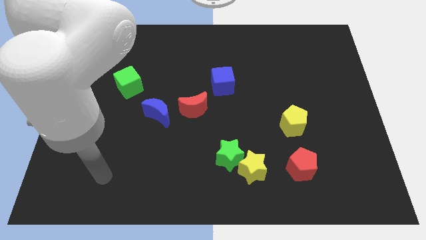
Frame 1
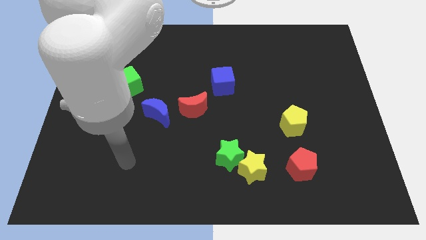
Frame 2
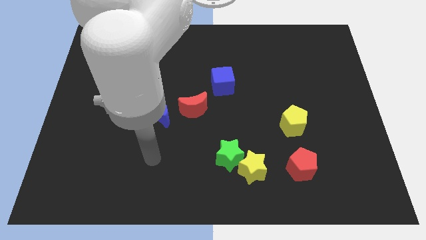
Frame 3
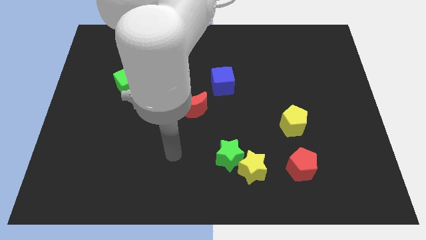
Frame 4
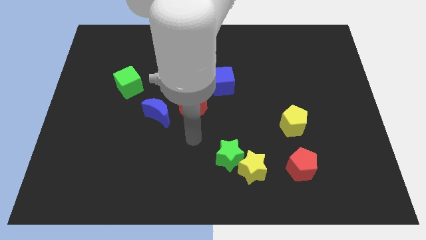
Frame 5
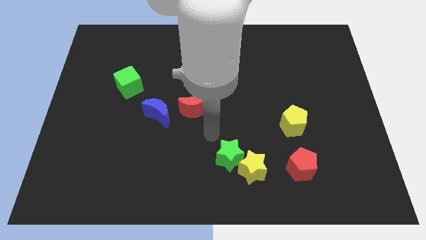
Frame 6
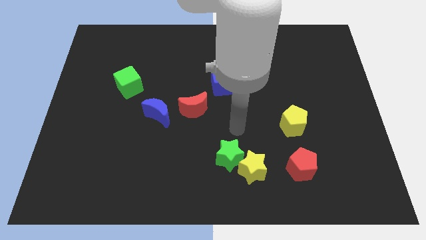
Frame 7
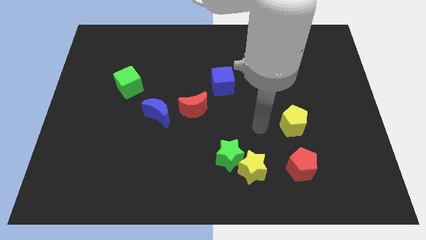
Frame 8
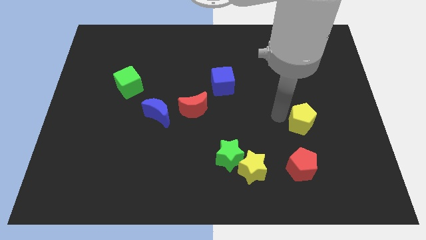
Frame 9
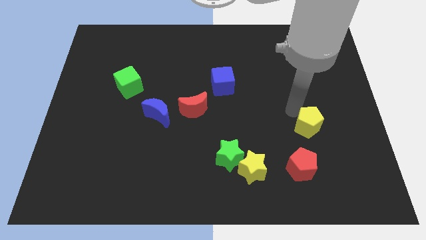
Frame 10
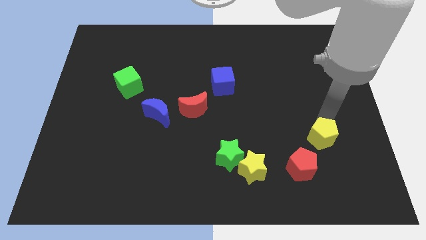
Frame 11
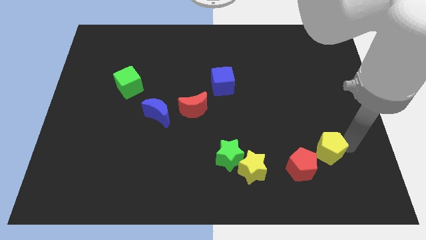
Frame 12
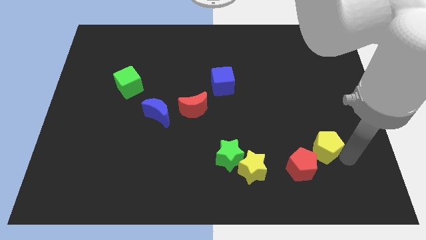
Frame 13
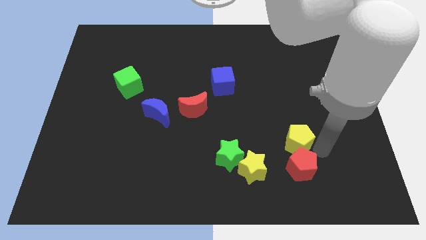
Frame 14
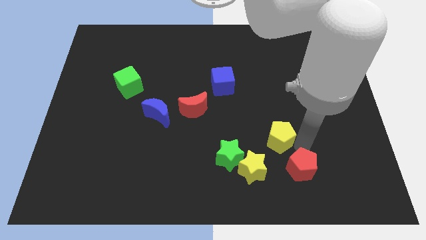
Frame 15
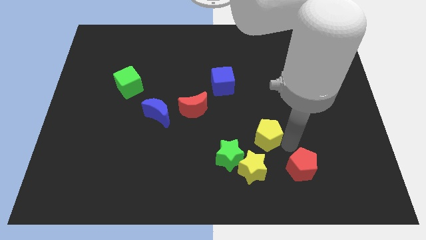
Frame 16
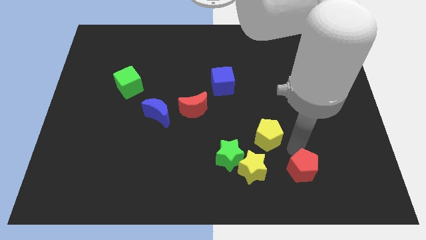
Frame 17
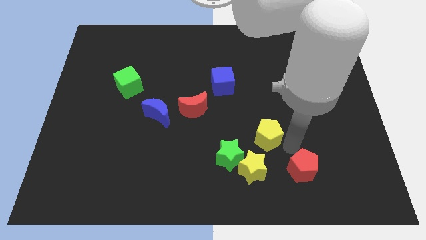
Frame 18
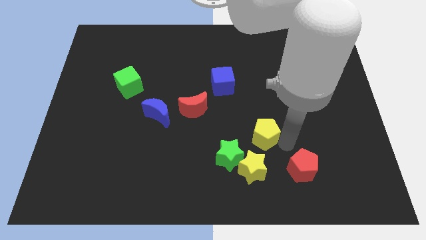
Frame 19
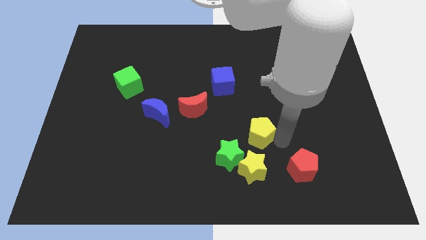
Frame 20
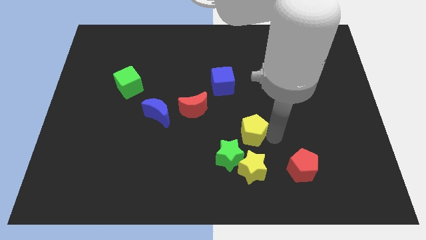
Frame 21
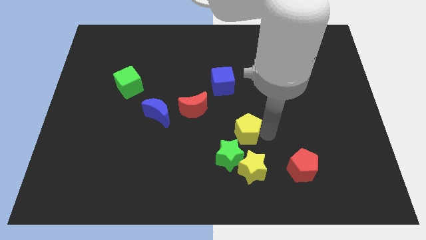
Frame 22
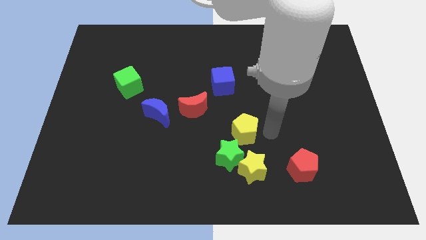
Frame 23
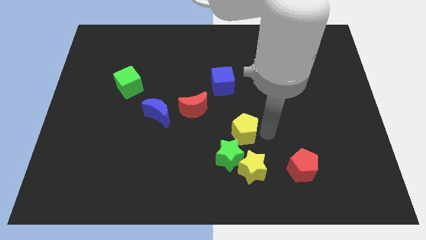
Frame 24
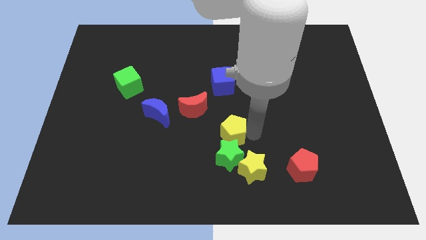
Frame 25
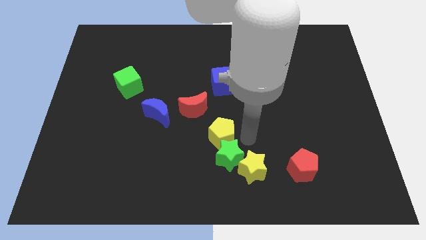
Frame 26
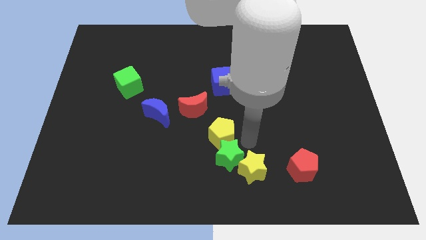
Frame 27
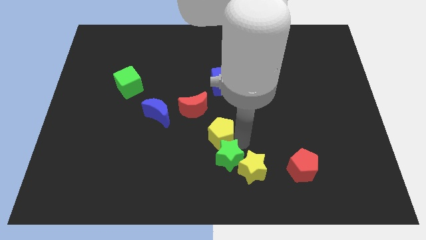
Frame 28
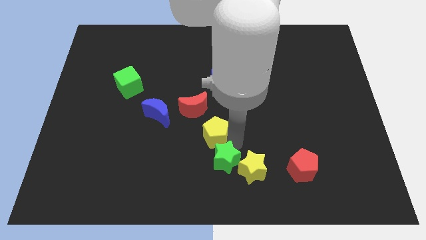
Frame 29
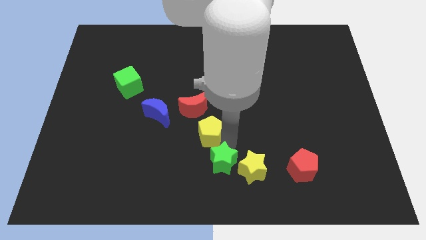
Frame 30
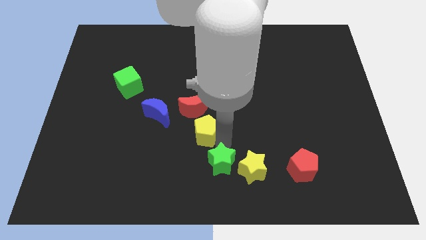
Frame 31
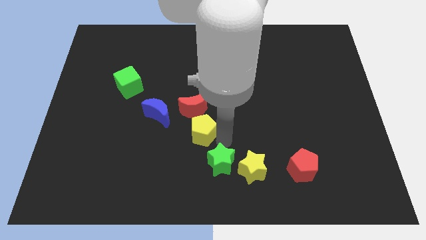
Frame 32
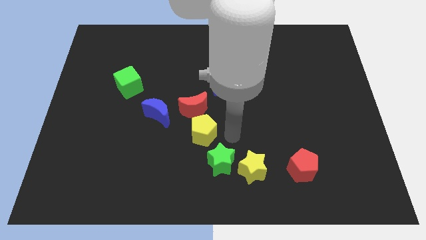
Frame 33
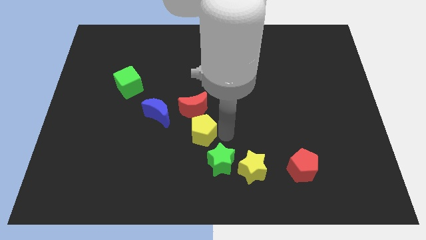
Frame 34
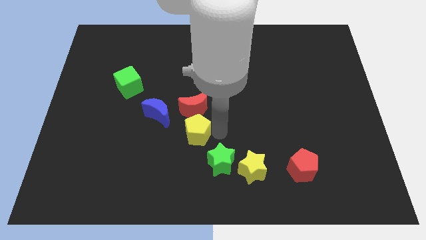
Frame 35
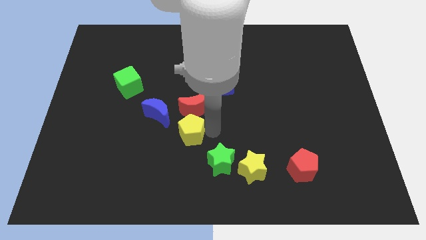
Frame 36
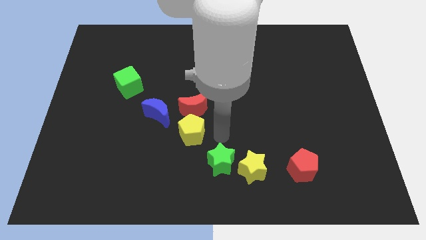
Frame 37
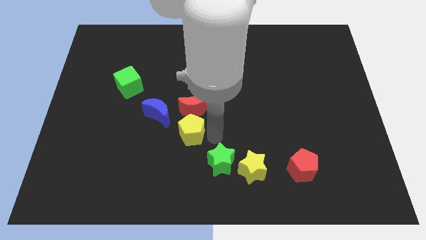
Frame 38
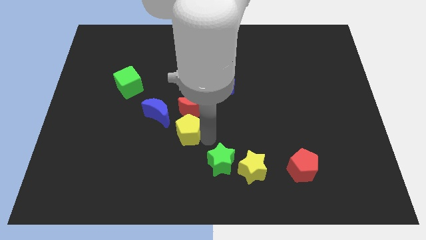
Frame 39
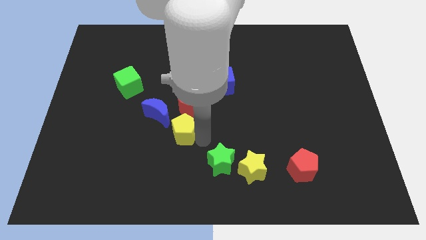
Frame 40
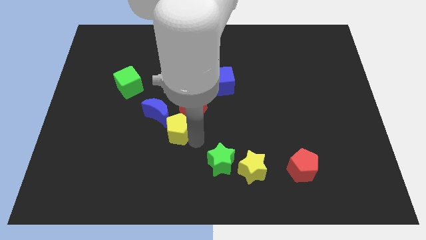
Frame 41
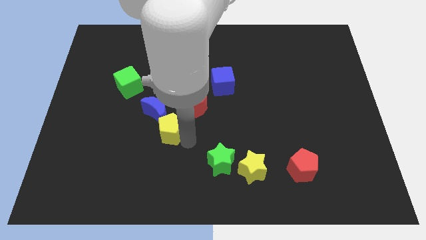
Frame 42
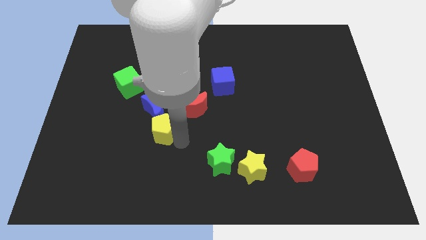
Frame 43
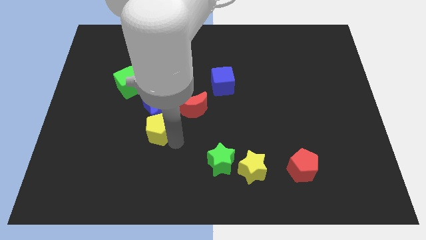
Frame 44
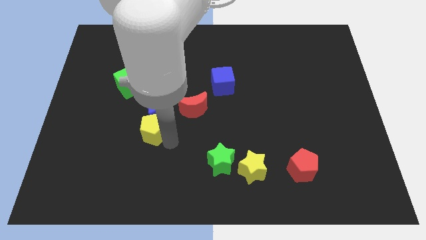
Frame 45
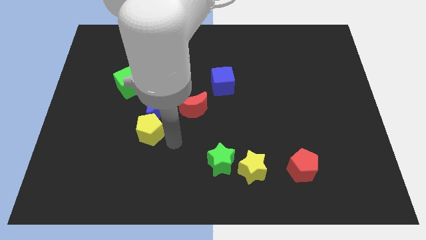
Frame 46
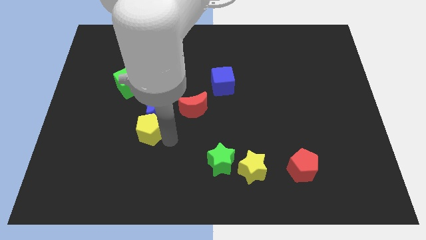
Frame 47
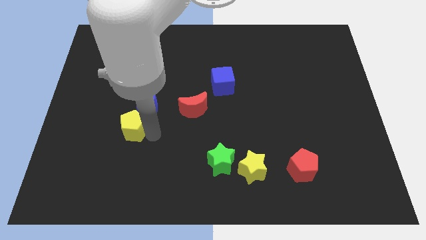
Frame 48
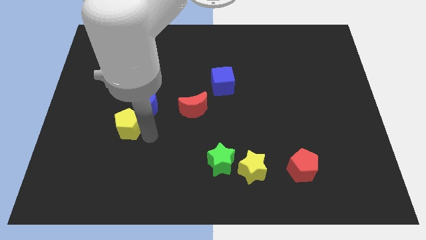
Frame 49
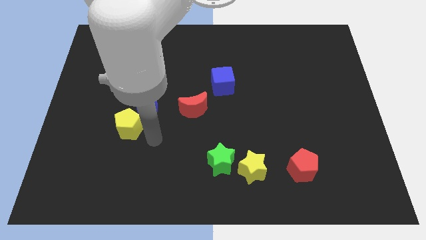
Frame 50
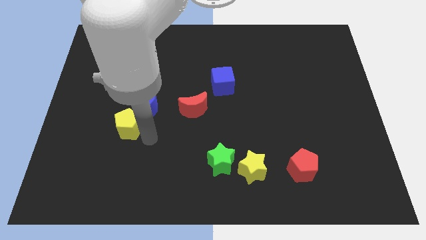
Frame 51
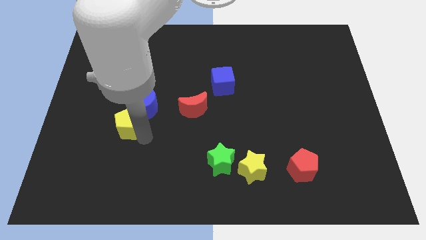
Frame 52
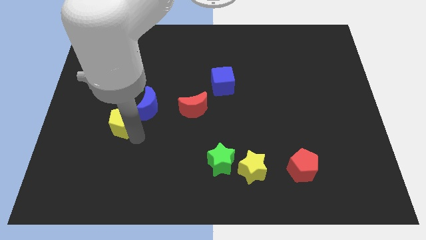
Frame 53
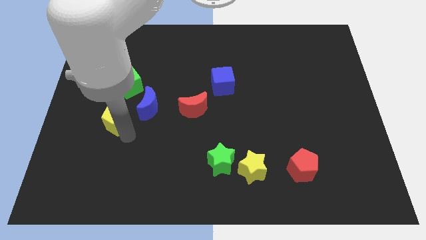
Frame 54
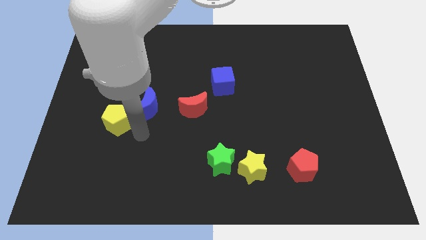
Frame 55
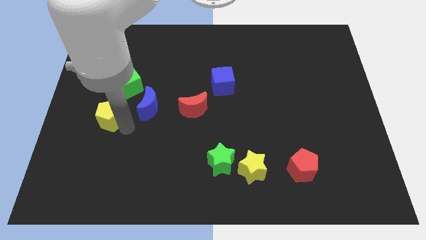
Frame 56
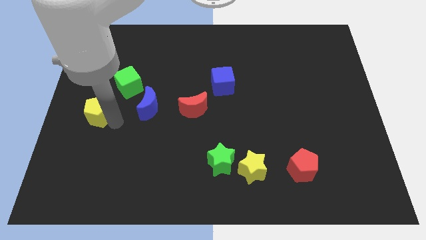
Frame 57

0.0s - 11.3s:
move the yellow pentagon to the center left
